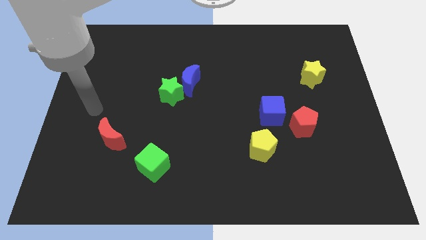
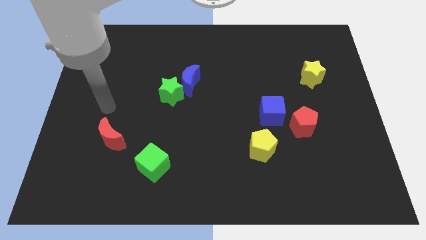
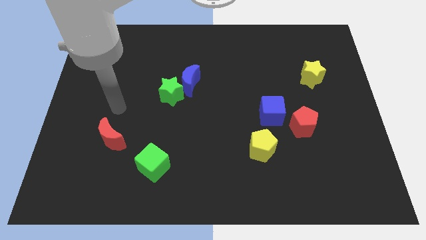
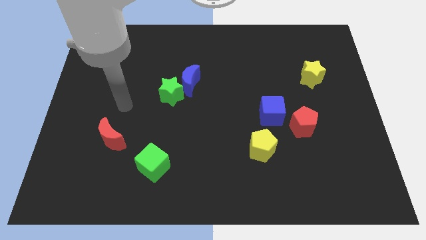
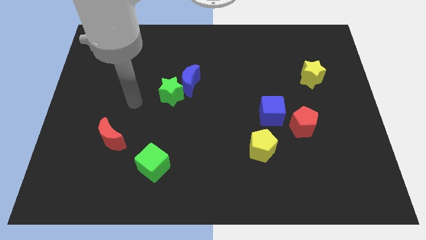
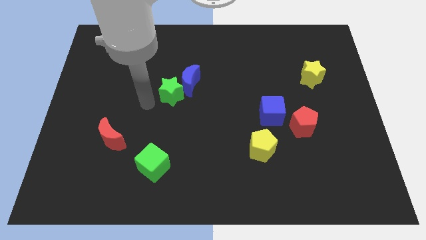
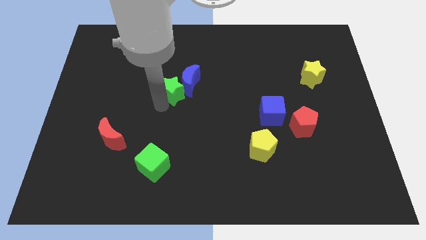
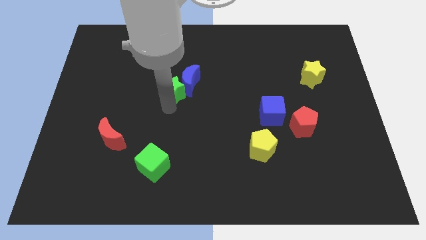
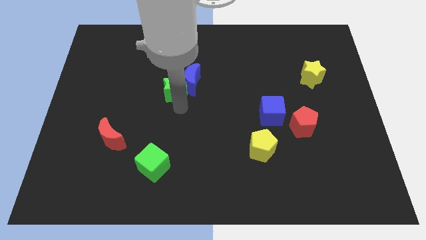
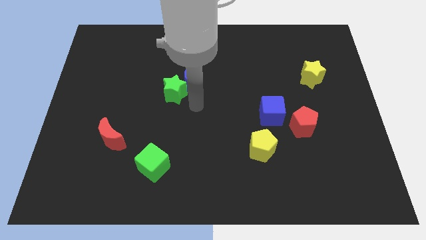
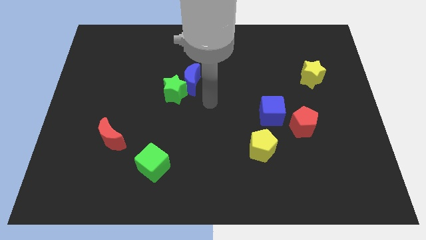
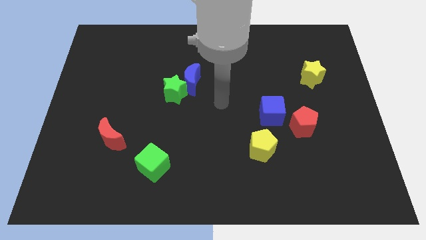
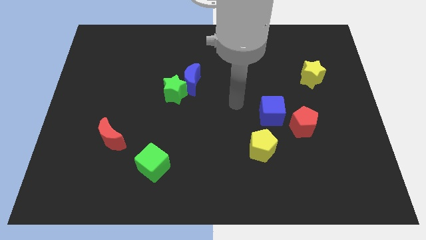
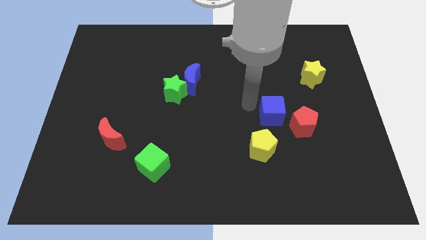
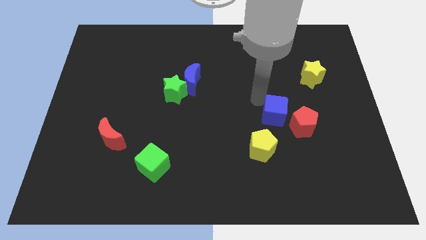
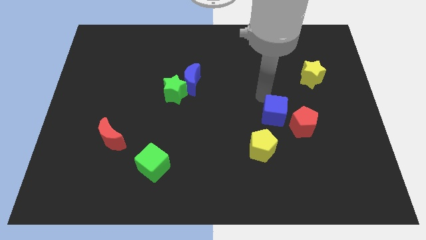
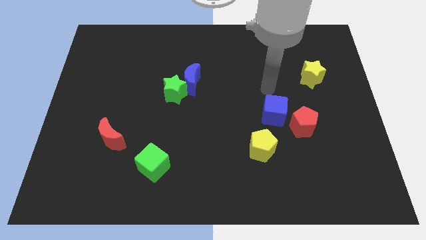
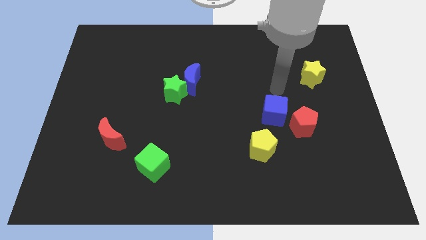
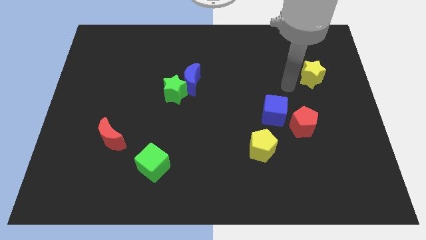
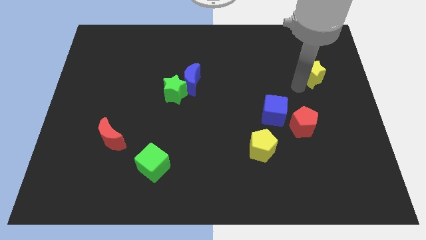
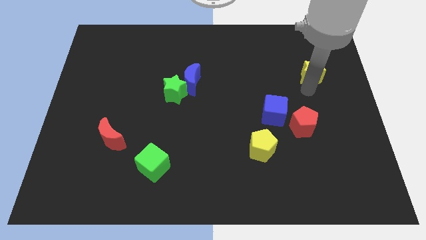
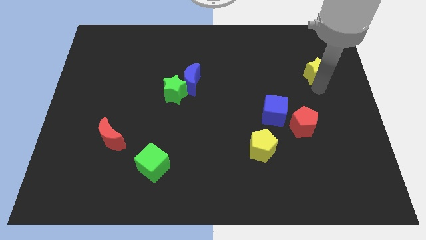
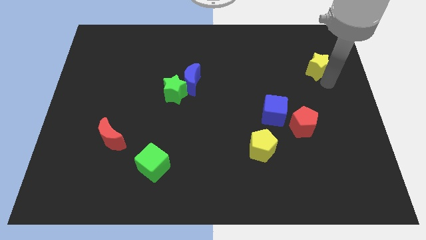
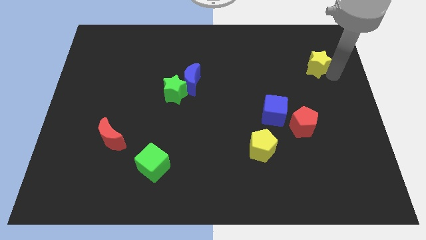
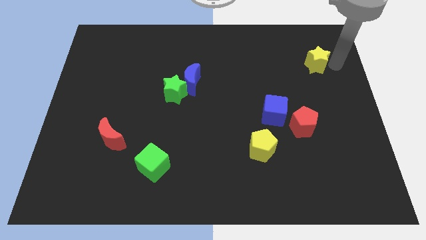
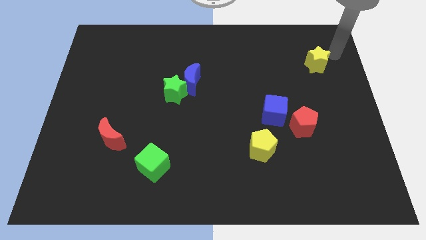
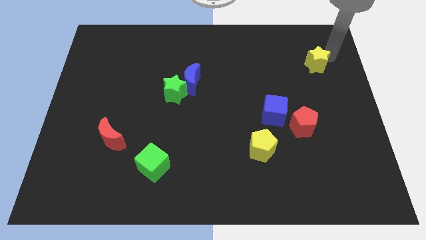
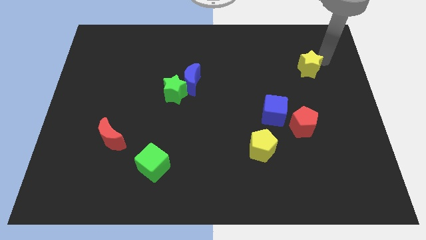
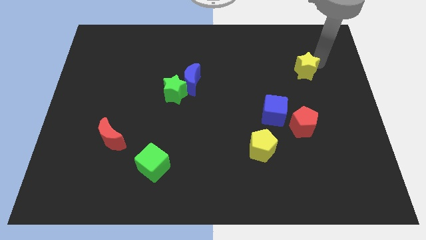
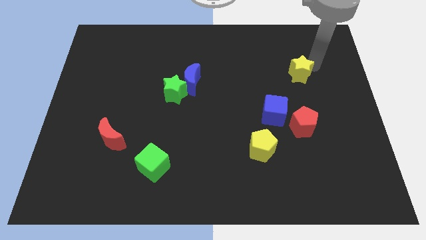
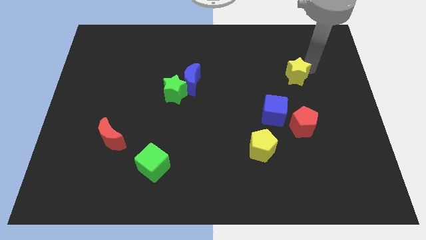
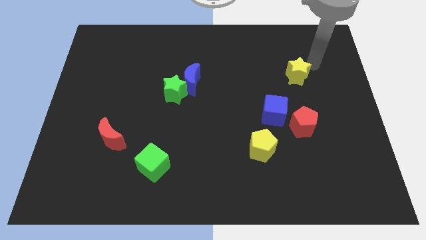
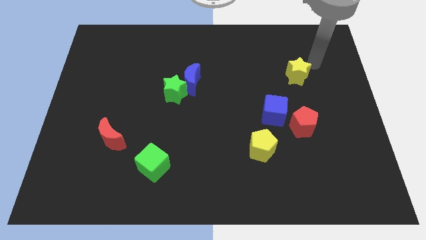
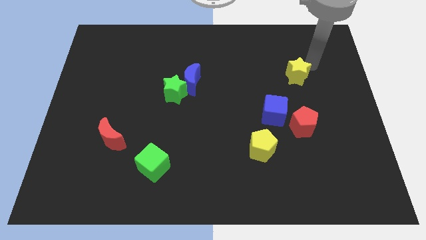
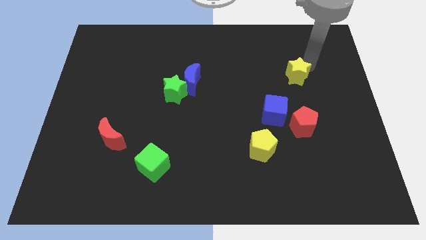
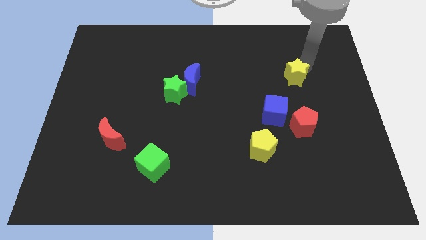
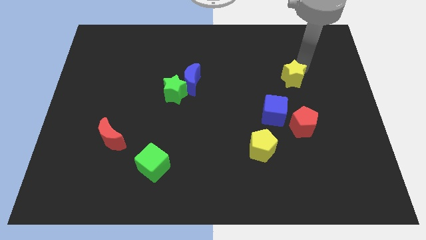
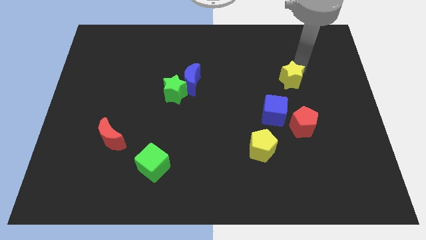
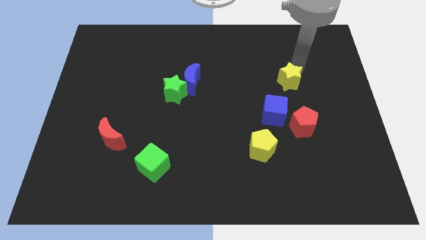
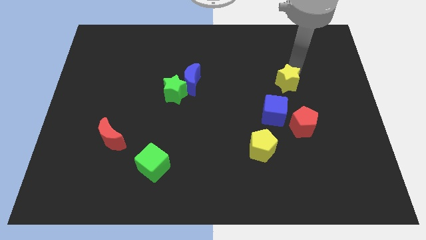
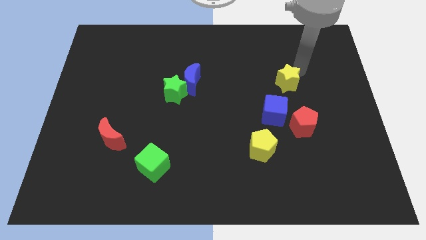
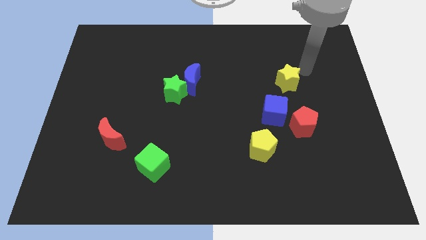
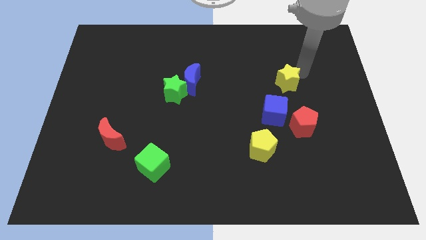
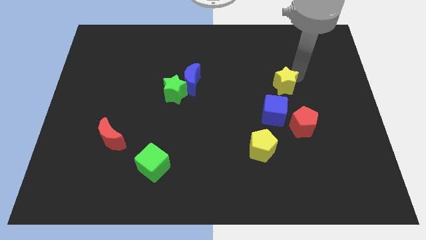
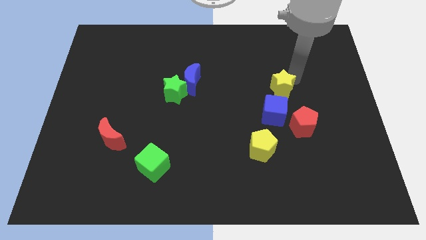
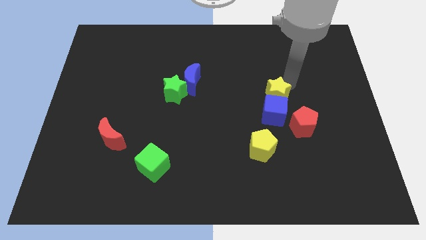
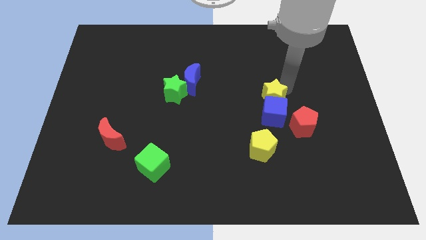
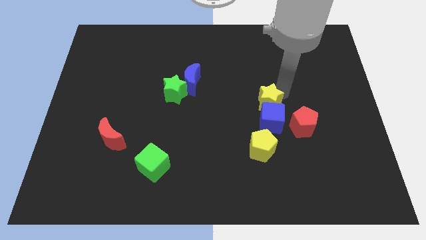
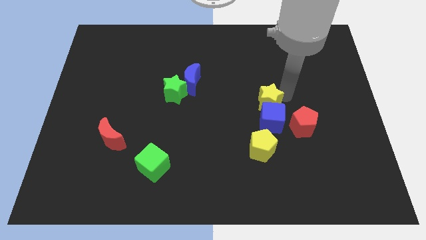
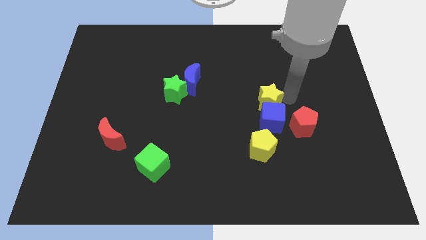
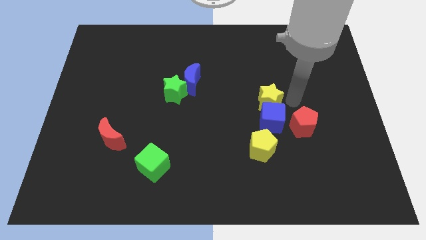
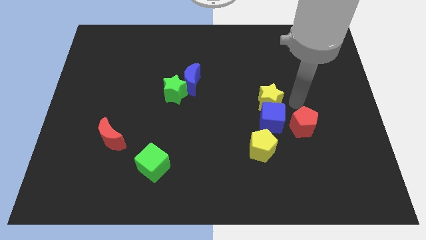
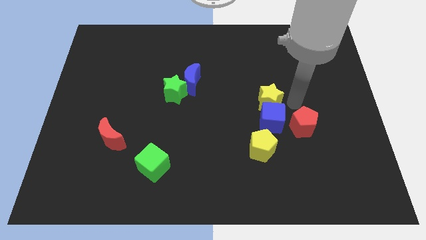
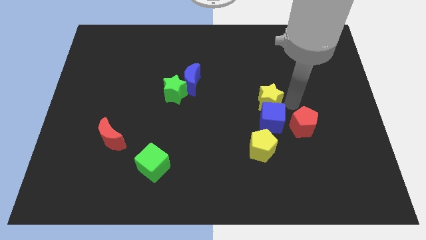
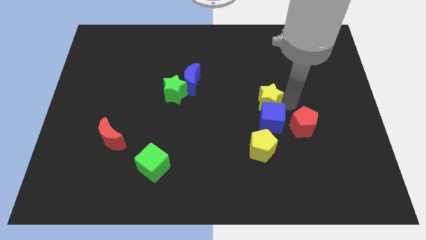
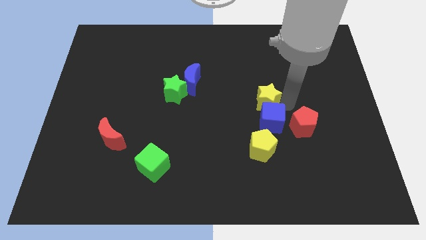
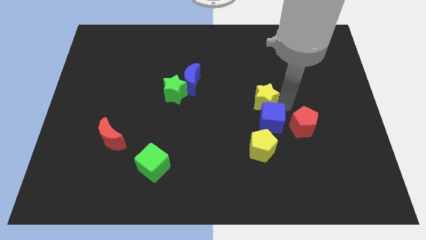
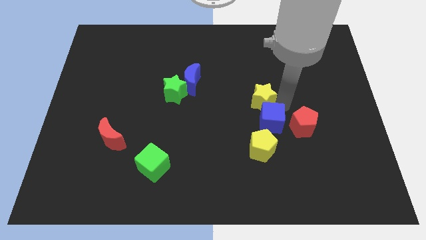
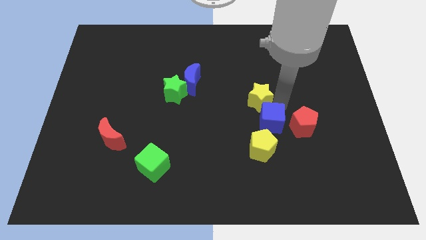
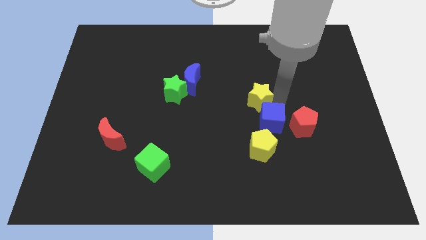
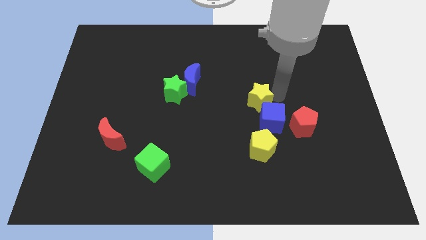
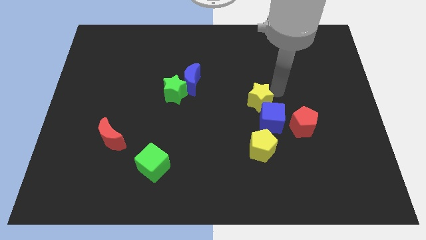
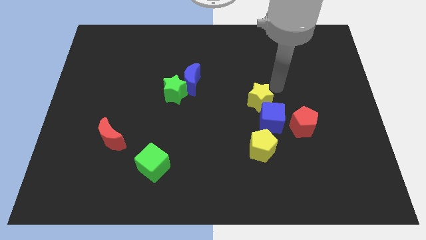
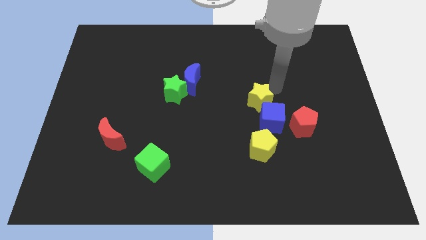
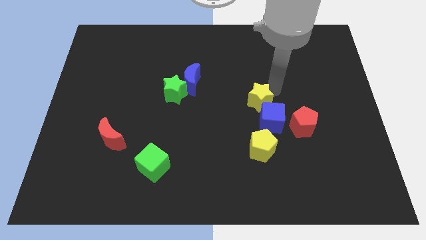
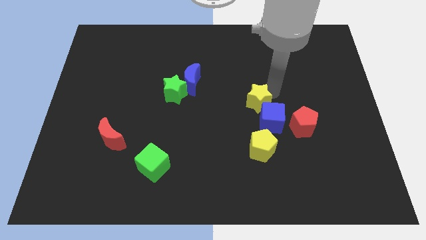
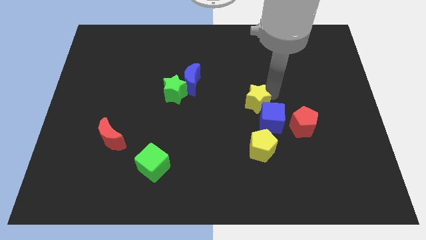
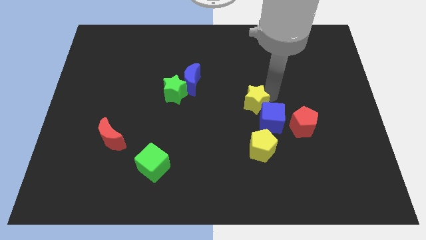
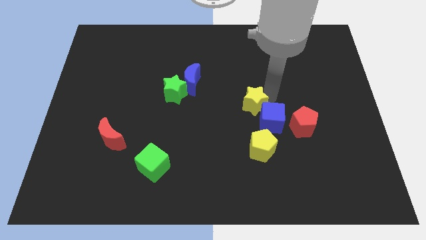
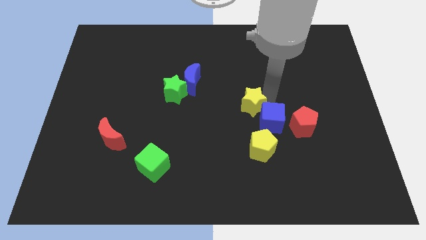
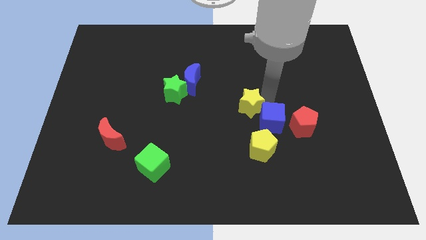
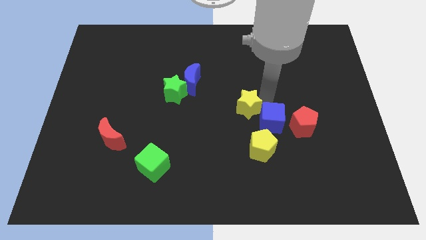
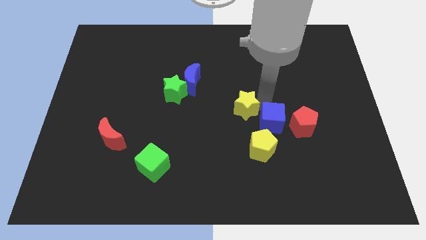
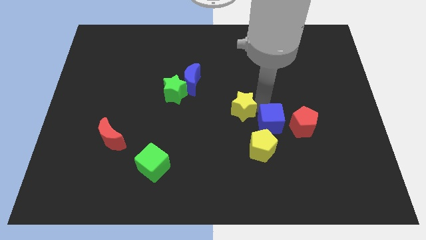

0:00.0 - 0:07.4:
push the yellow star to the top left of the yellow pentagon

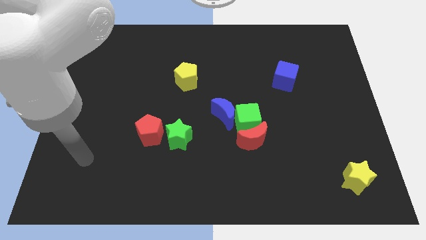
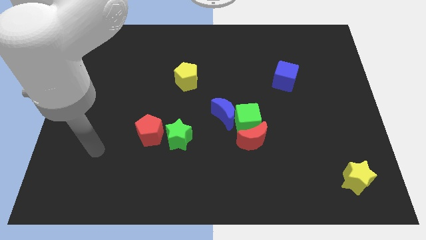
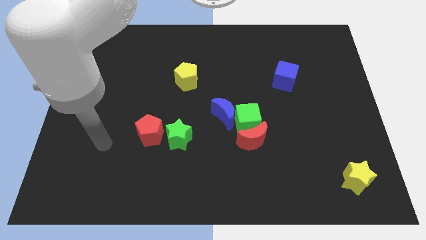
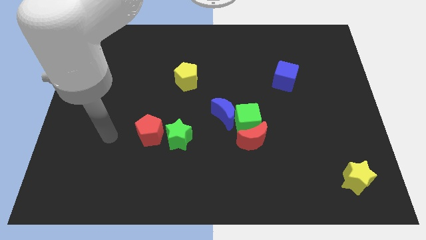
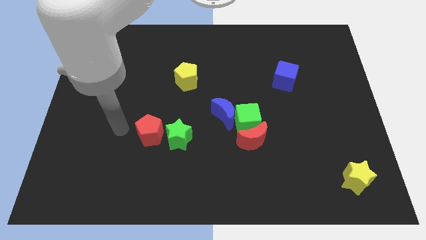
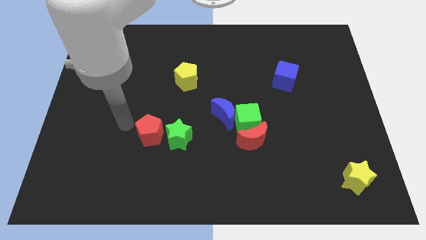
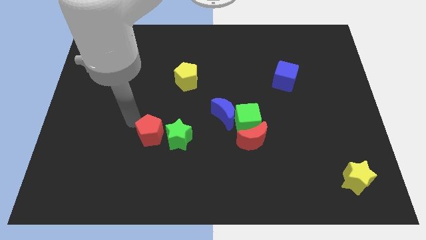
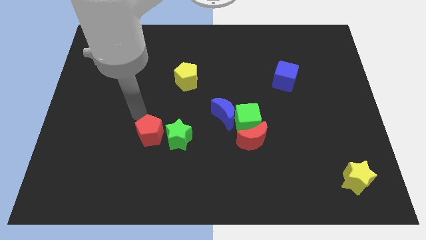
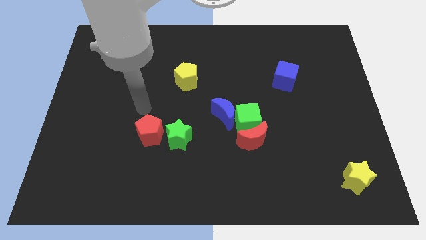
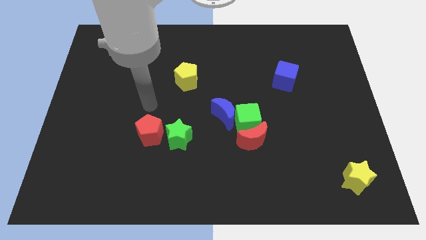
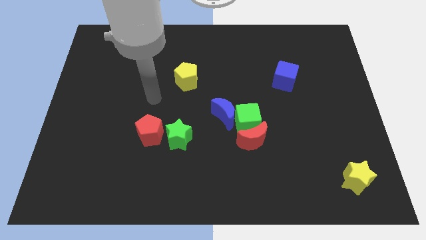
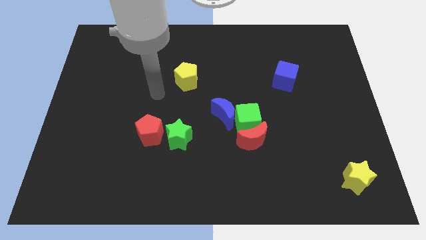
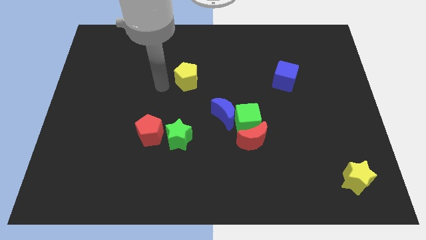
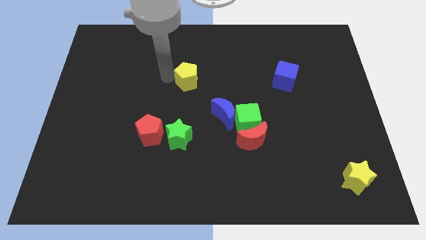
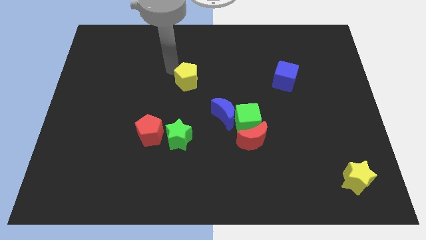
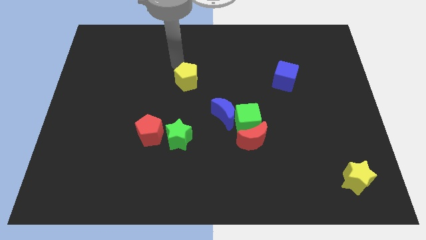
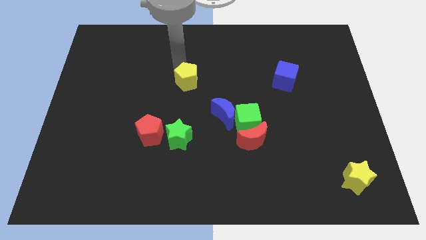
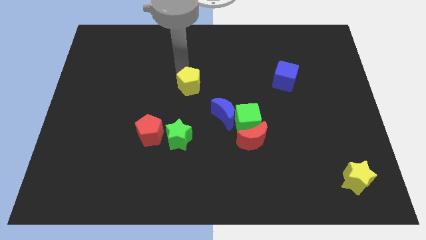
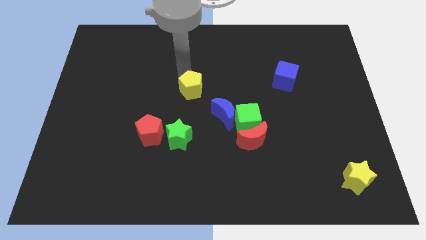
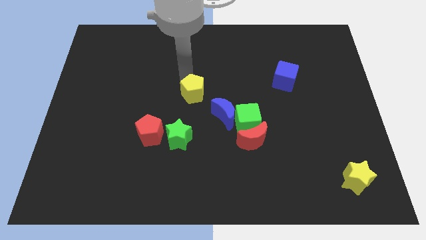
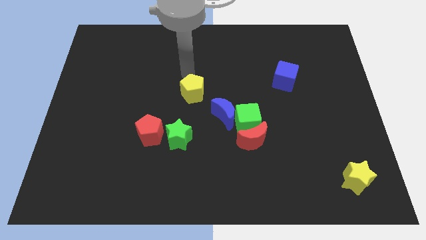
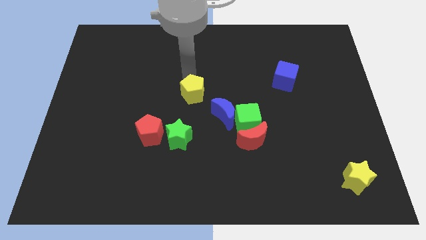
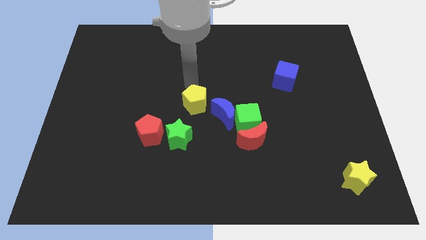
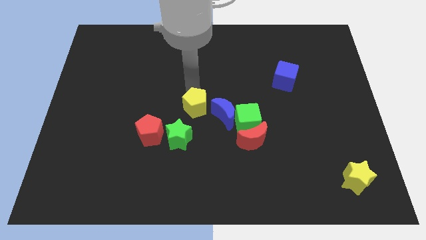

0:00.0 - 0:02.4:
slide the yellow pentagon left of the green cube
